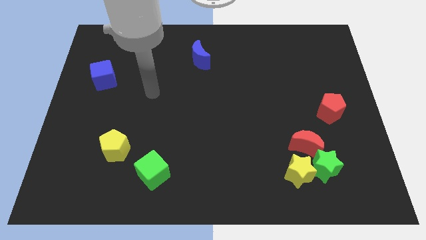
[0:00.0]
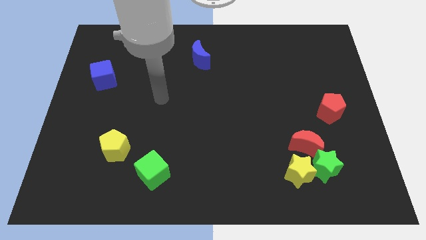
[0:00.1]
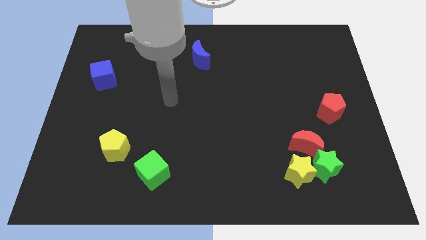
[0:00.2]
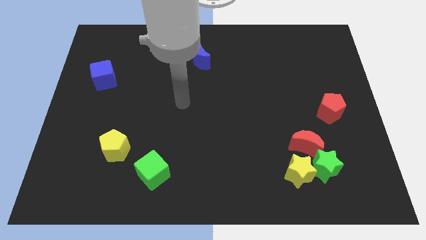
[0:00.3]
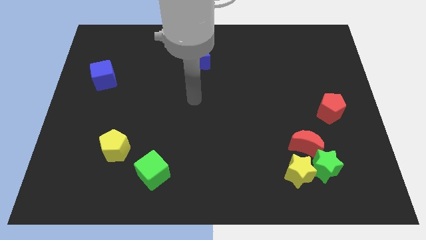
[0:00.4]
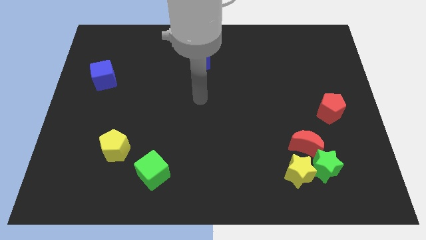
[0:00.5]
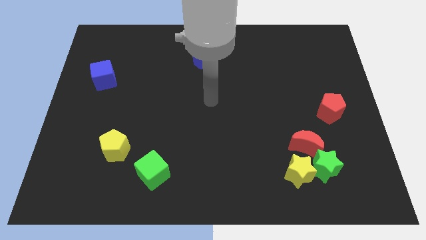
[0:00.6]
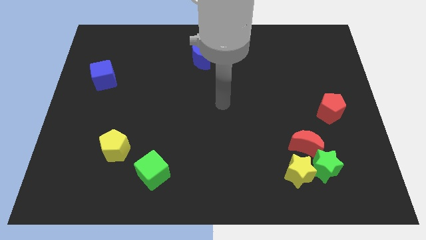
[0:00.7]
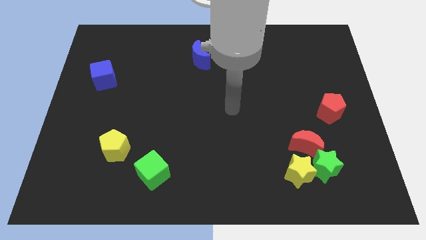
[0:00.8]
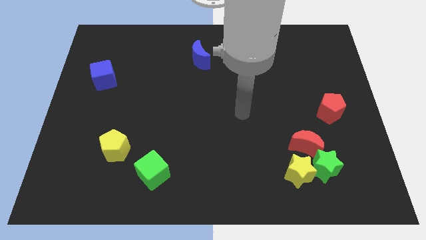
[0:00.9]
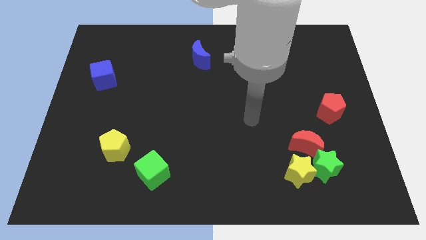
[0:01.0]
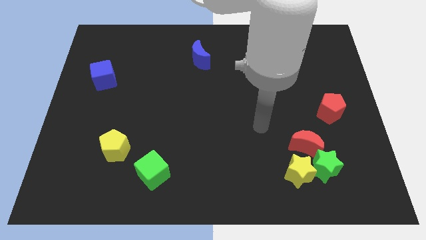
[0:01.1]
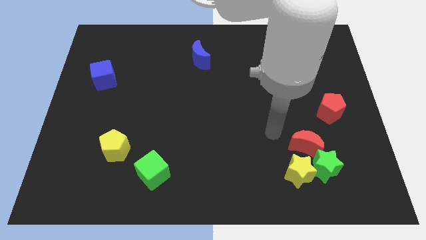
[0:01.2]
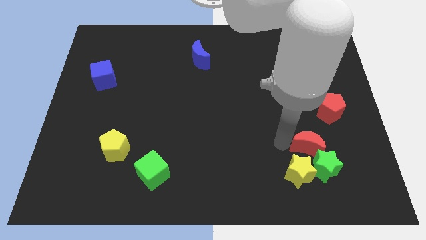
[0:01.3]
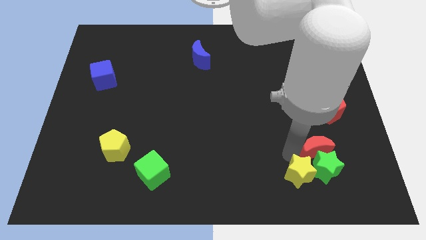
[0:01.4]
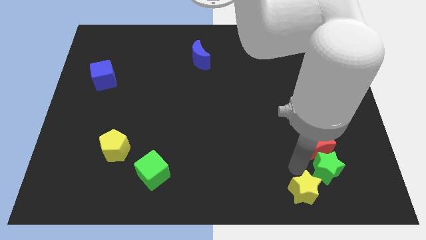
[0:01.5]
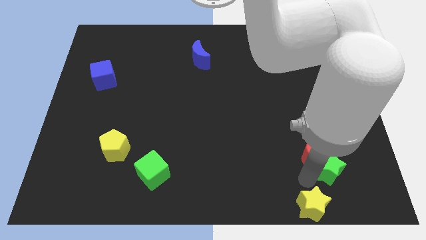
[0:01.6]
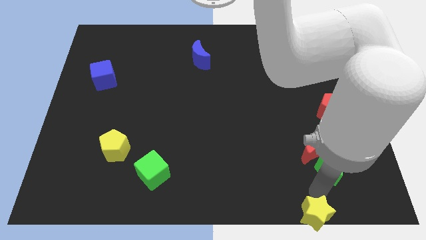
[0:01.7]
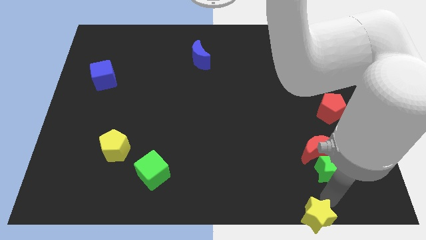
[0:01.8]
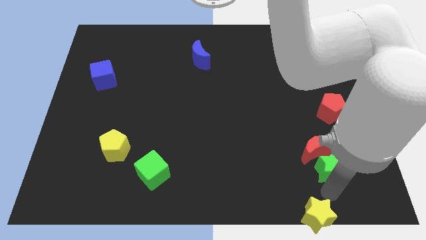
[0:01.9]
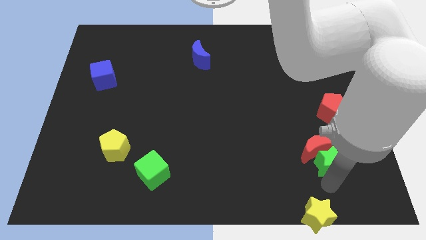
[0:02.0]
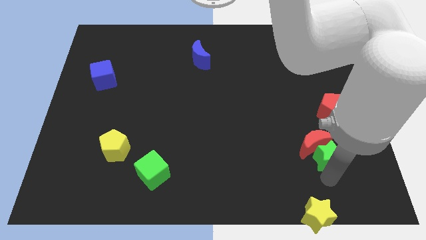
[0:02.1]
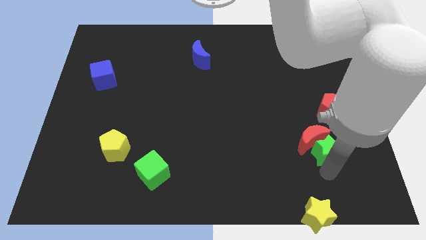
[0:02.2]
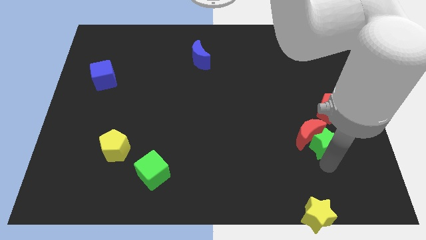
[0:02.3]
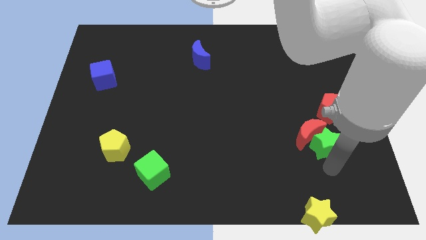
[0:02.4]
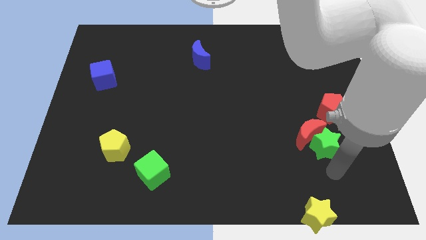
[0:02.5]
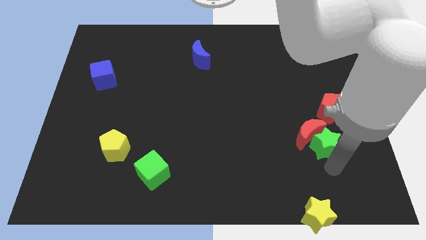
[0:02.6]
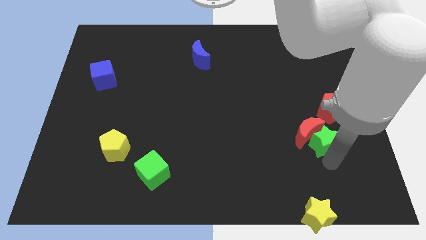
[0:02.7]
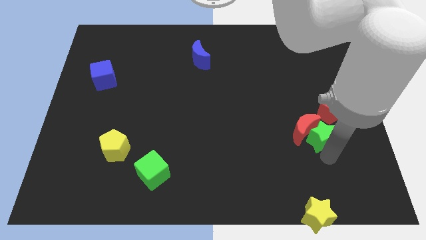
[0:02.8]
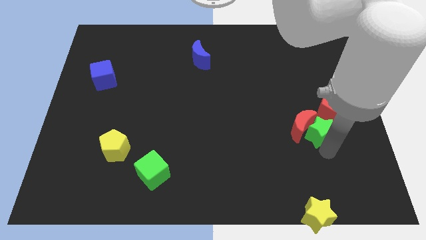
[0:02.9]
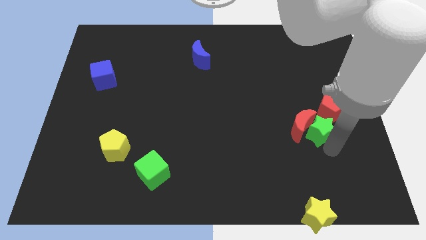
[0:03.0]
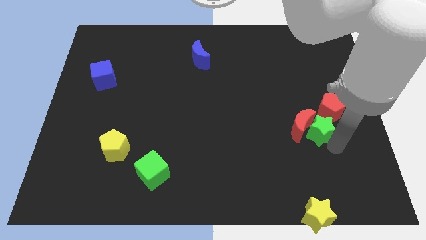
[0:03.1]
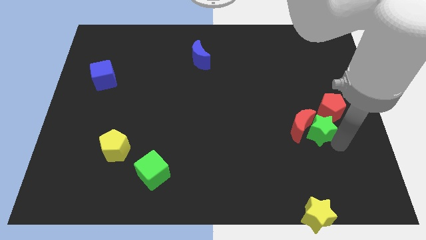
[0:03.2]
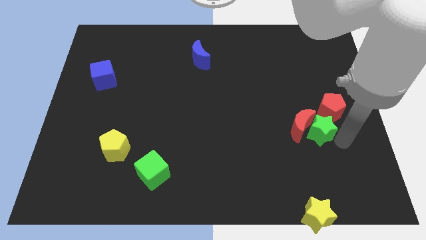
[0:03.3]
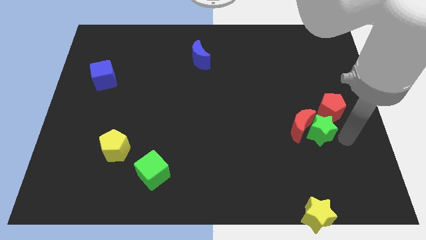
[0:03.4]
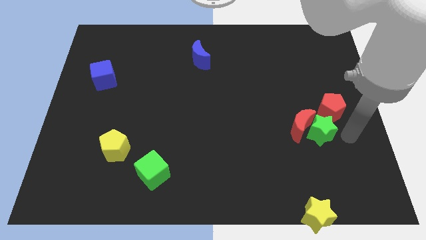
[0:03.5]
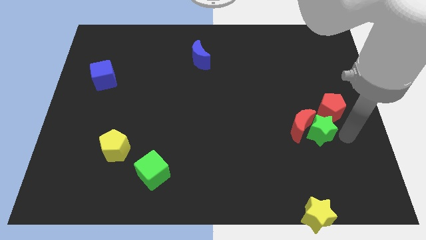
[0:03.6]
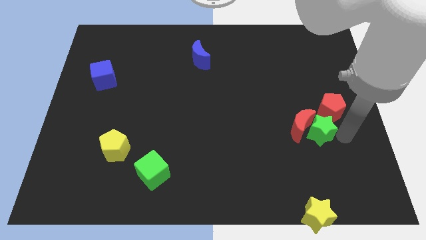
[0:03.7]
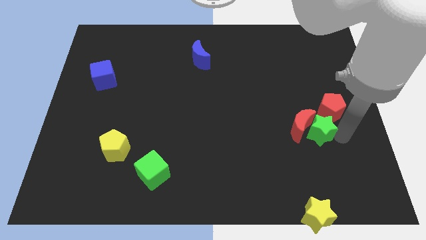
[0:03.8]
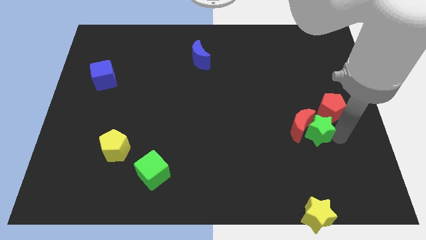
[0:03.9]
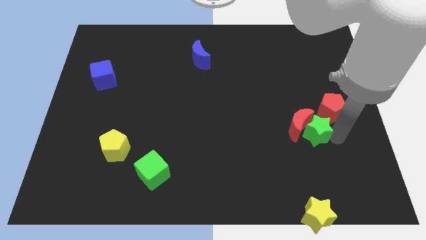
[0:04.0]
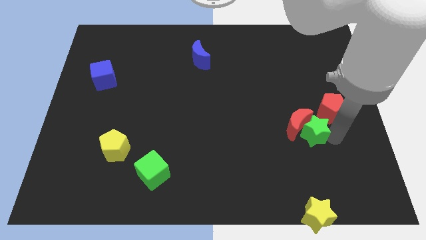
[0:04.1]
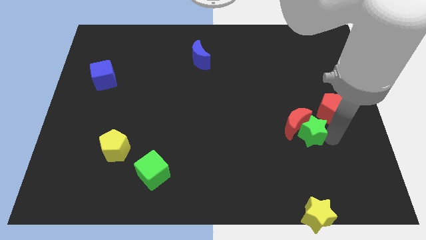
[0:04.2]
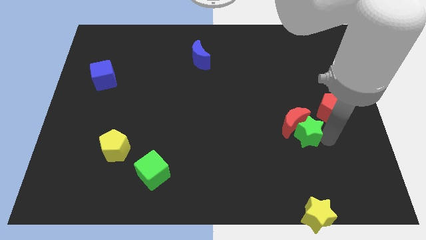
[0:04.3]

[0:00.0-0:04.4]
move the green star upwards and left a little

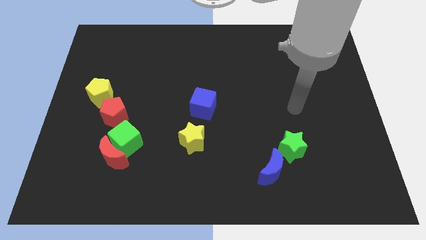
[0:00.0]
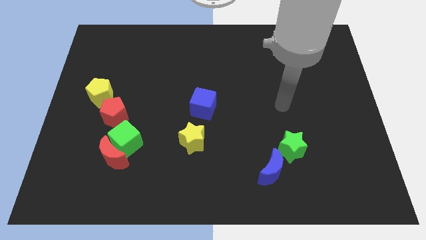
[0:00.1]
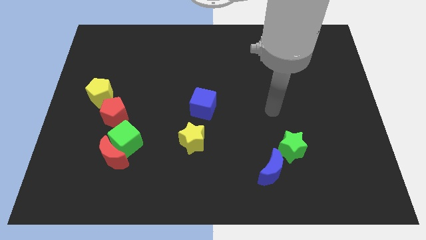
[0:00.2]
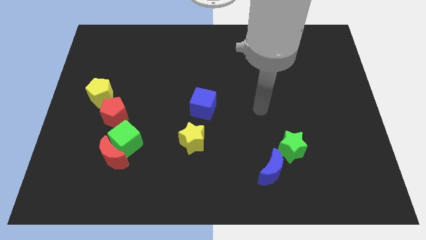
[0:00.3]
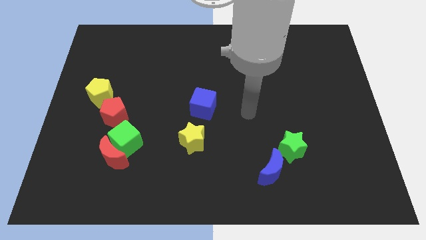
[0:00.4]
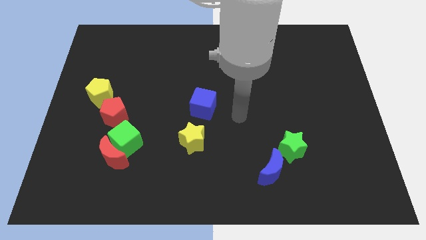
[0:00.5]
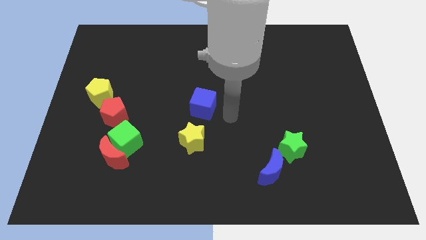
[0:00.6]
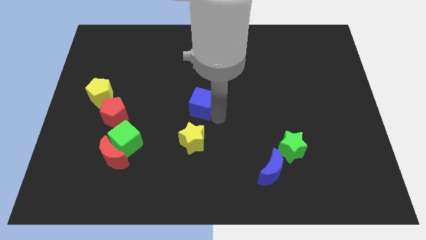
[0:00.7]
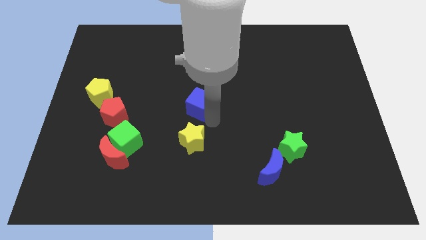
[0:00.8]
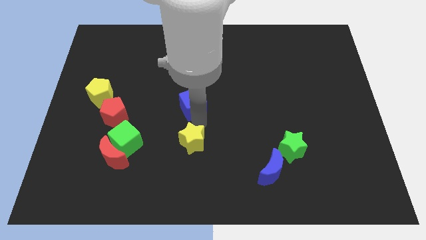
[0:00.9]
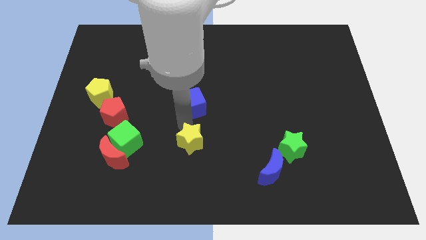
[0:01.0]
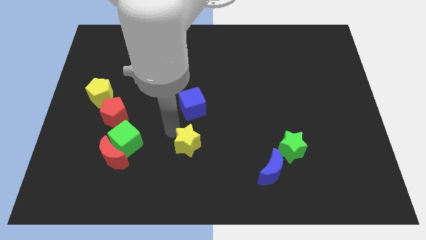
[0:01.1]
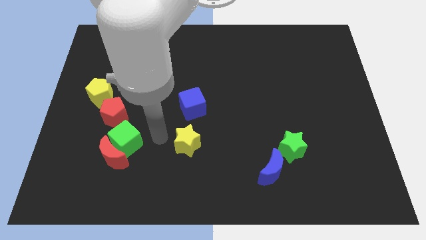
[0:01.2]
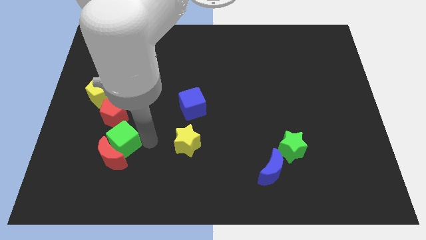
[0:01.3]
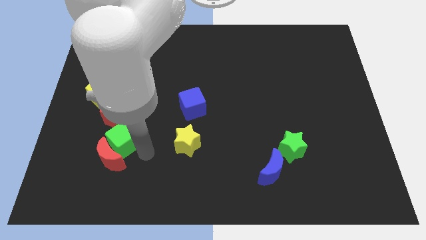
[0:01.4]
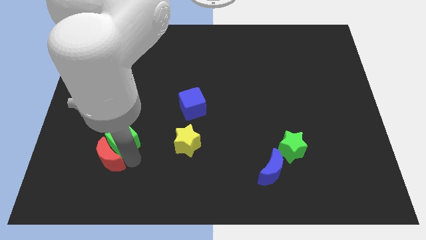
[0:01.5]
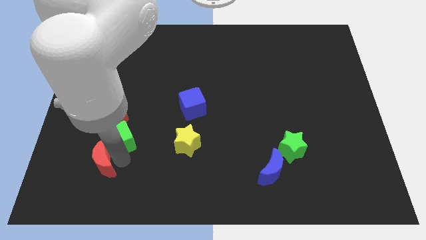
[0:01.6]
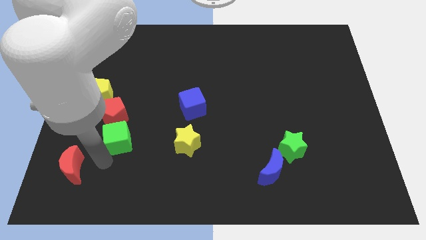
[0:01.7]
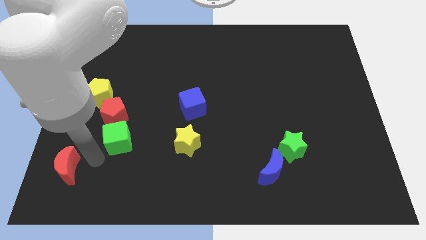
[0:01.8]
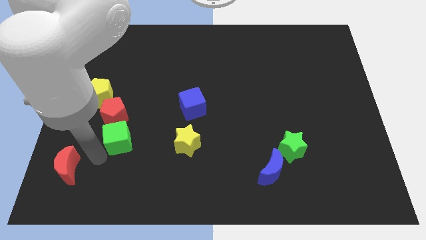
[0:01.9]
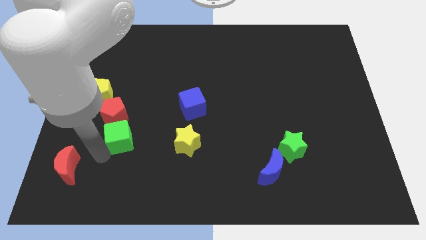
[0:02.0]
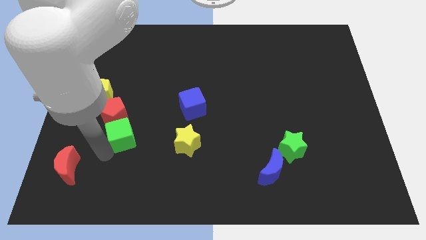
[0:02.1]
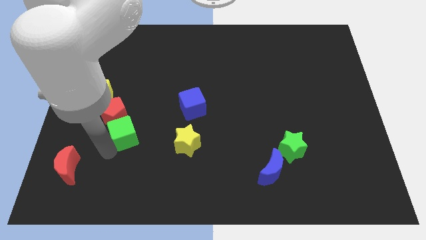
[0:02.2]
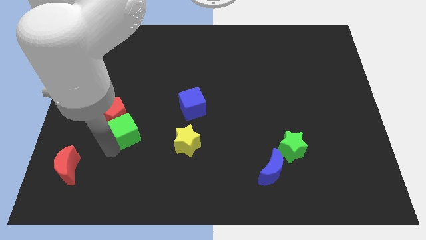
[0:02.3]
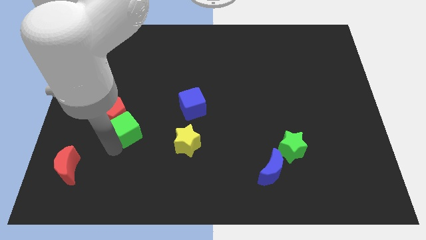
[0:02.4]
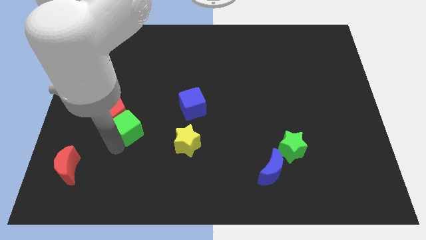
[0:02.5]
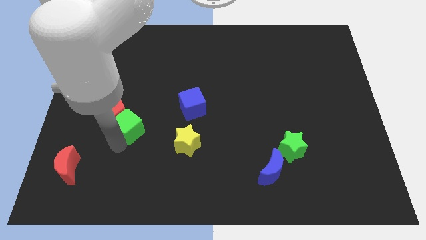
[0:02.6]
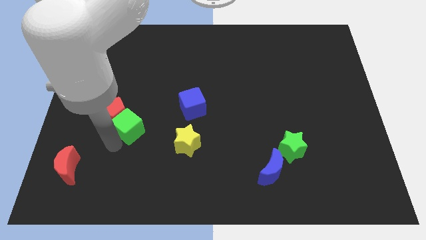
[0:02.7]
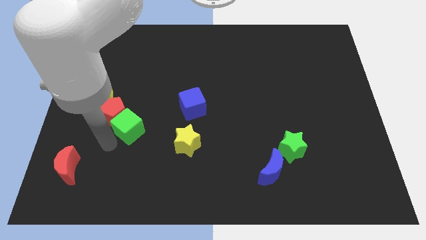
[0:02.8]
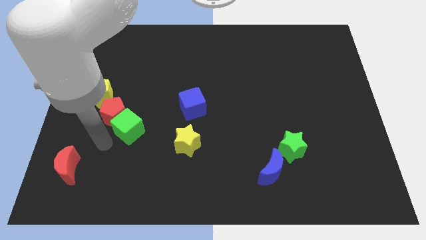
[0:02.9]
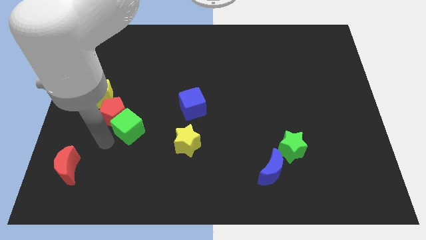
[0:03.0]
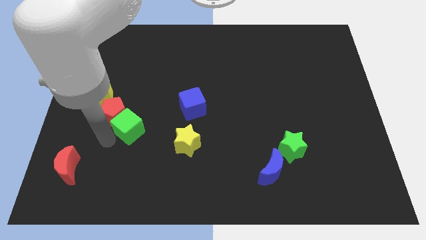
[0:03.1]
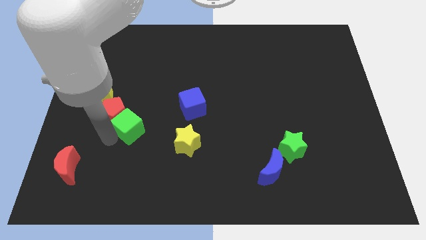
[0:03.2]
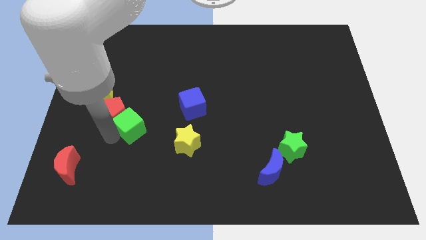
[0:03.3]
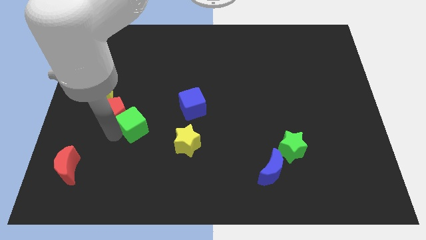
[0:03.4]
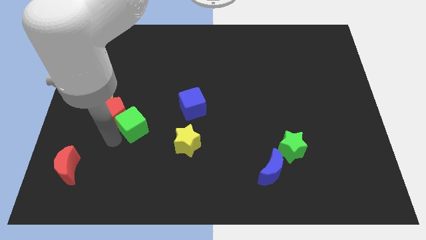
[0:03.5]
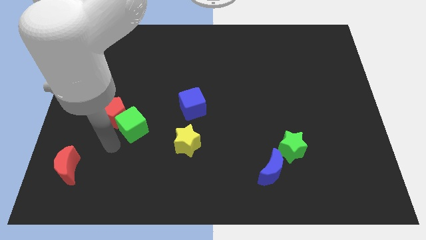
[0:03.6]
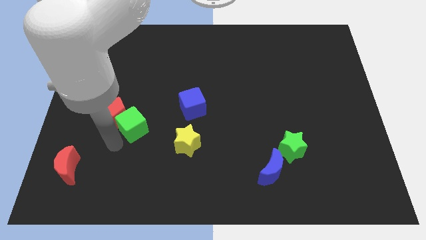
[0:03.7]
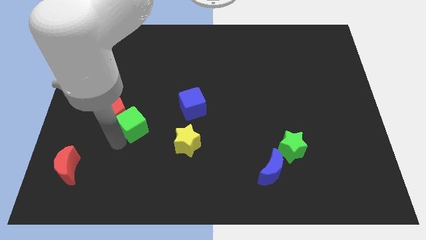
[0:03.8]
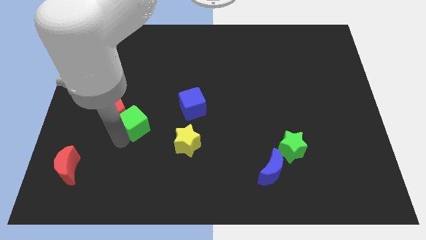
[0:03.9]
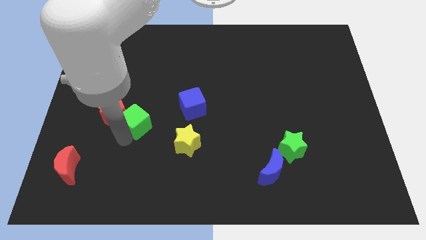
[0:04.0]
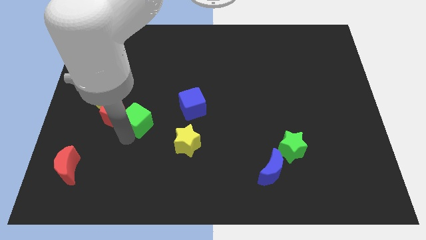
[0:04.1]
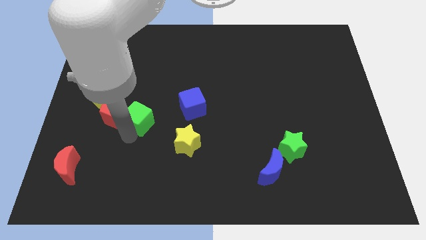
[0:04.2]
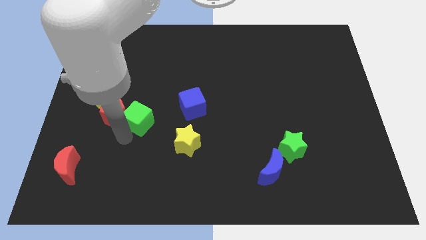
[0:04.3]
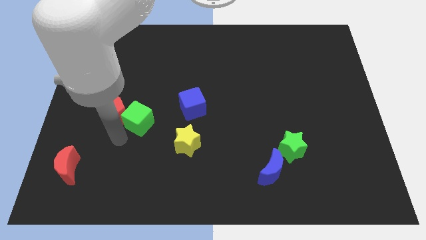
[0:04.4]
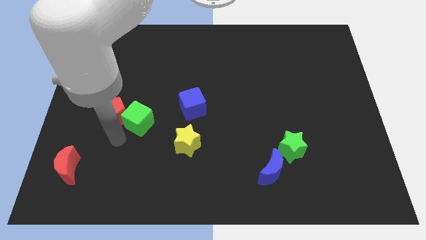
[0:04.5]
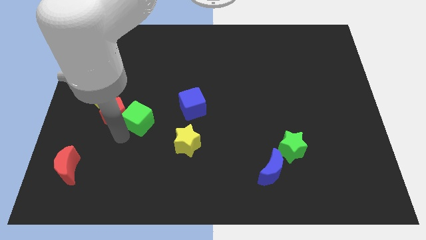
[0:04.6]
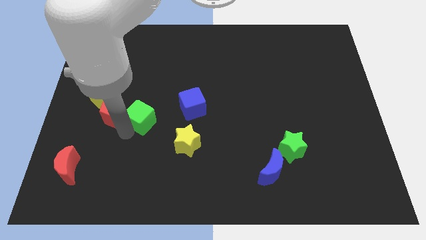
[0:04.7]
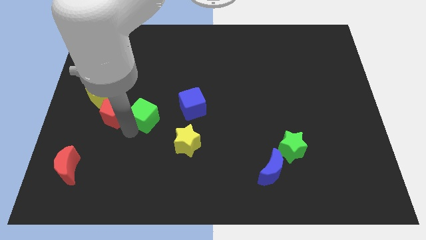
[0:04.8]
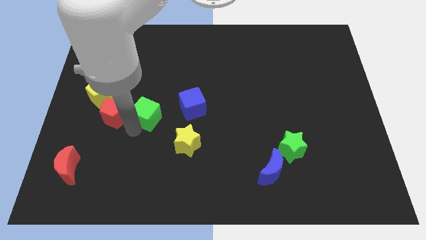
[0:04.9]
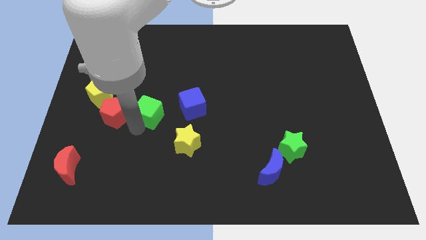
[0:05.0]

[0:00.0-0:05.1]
slightly push the green cube up
